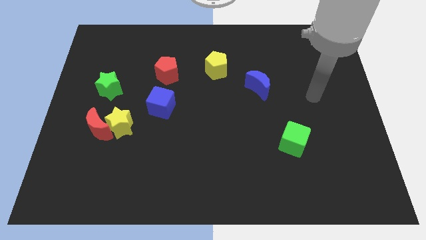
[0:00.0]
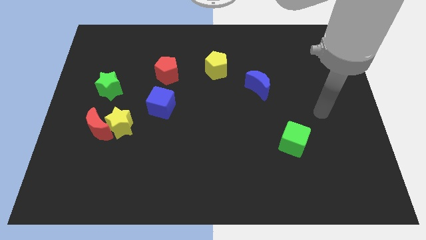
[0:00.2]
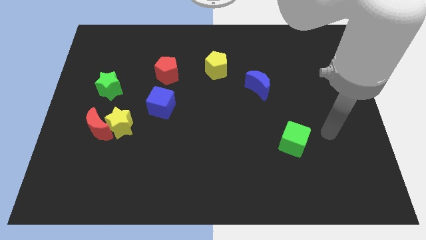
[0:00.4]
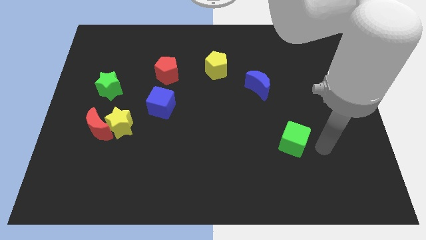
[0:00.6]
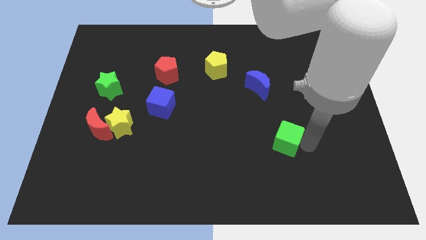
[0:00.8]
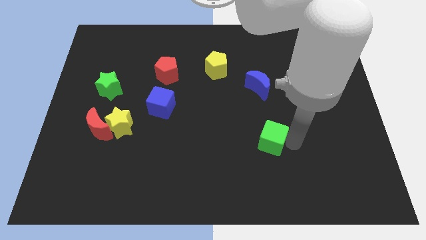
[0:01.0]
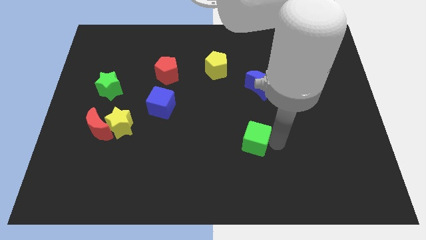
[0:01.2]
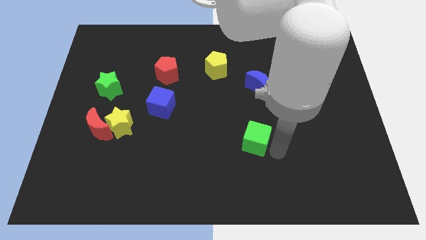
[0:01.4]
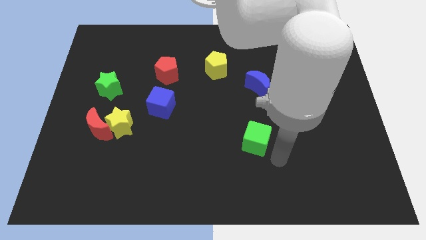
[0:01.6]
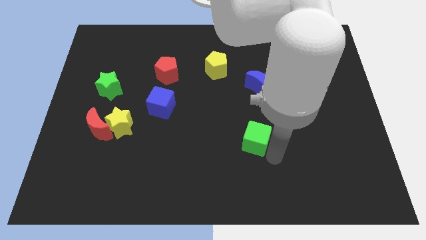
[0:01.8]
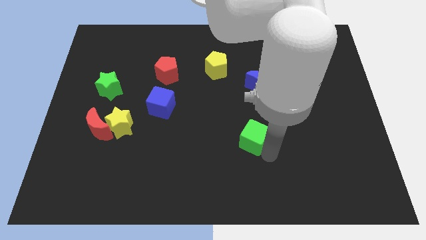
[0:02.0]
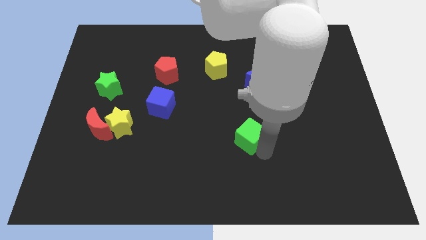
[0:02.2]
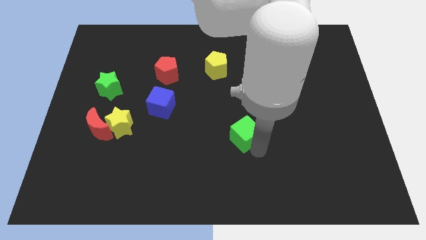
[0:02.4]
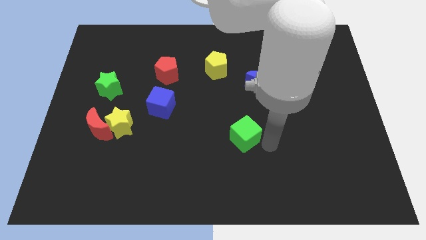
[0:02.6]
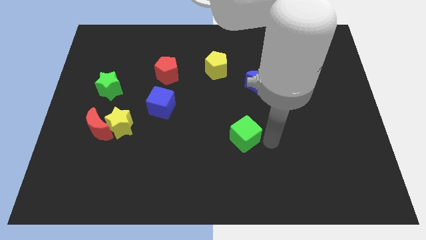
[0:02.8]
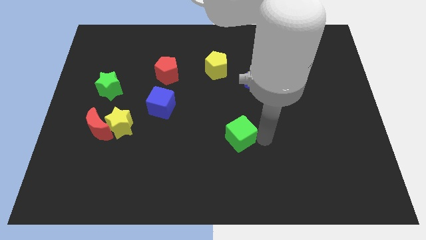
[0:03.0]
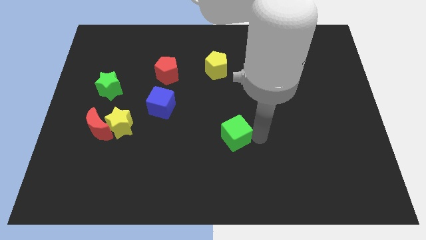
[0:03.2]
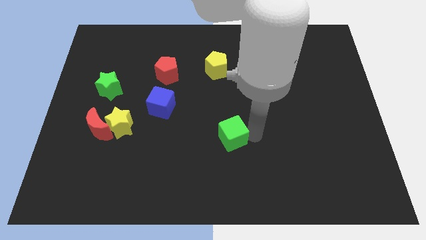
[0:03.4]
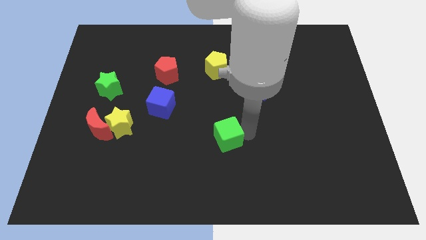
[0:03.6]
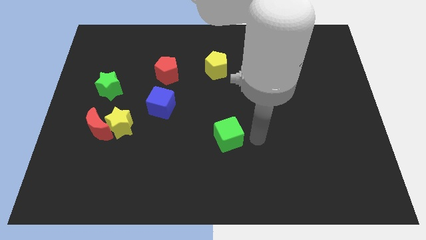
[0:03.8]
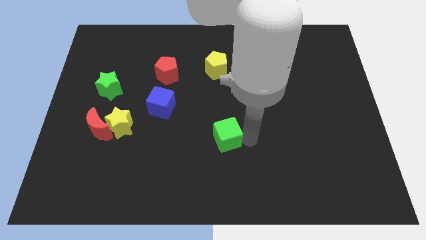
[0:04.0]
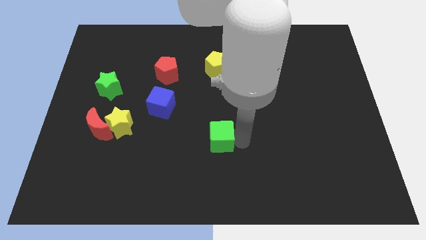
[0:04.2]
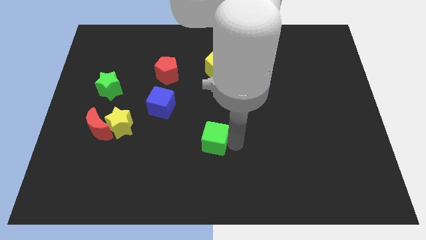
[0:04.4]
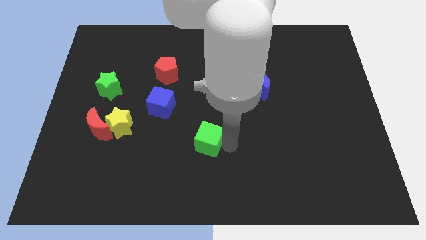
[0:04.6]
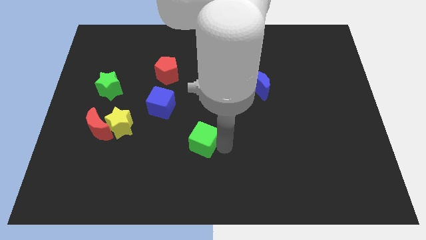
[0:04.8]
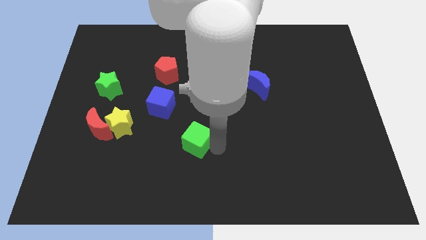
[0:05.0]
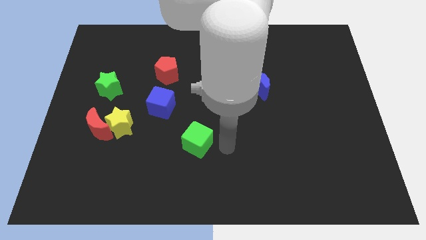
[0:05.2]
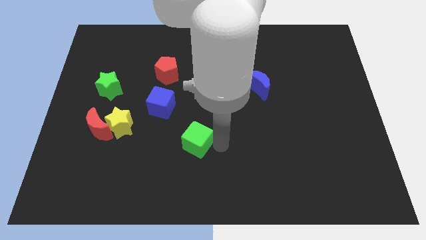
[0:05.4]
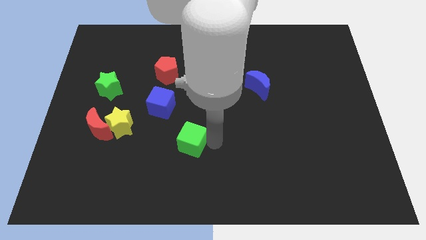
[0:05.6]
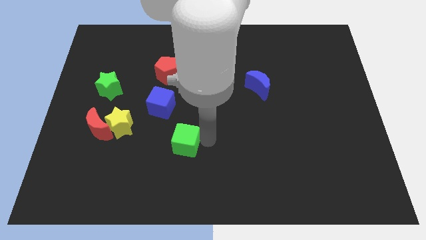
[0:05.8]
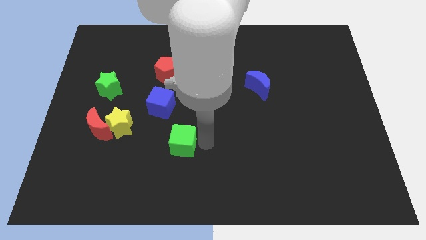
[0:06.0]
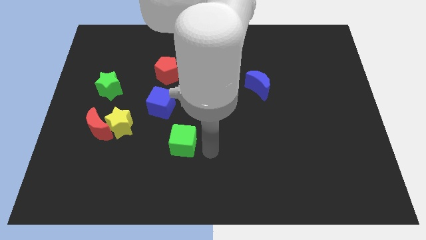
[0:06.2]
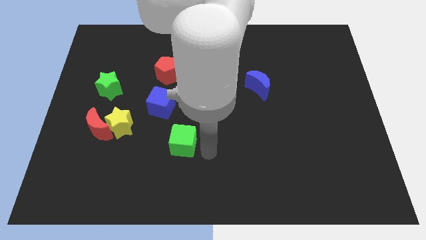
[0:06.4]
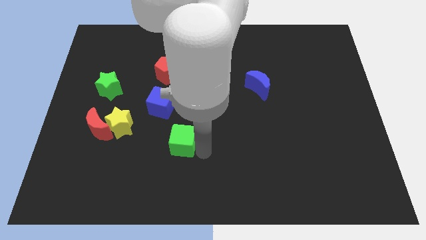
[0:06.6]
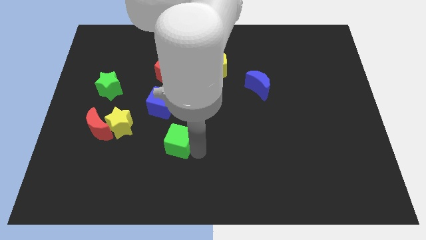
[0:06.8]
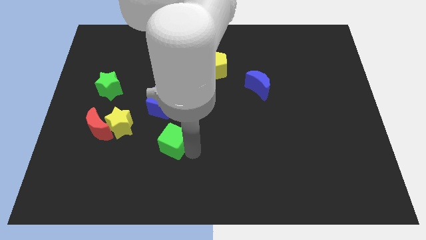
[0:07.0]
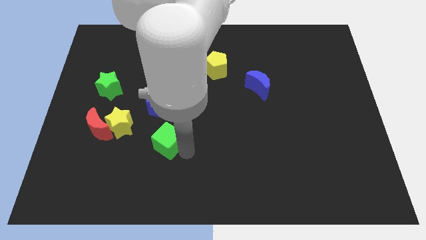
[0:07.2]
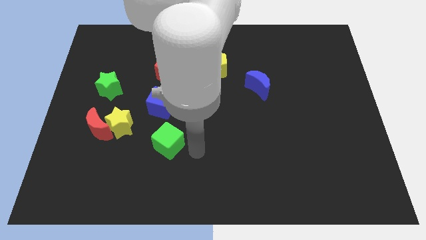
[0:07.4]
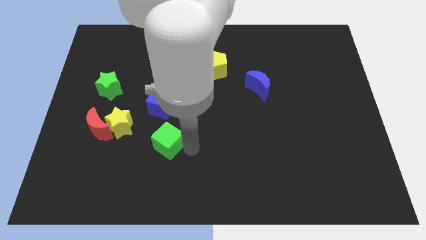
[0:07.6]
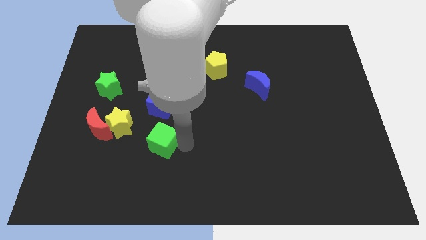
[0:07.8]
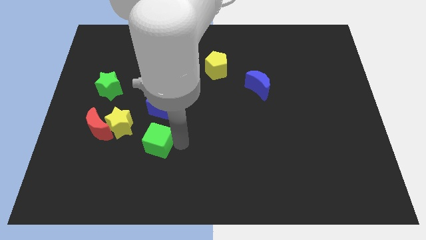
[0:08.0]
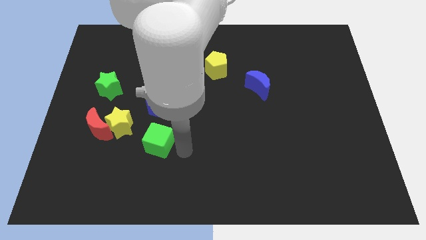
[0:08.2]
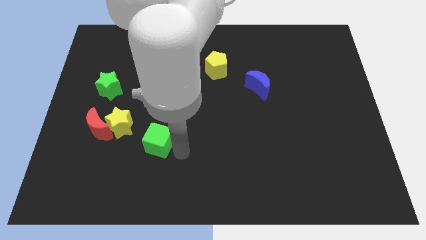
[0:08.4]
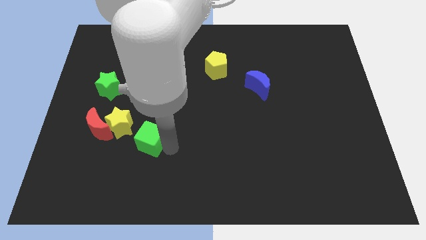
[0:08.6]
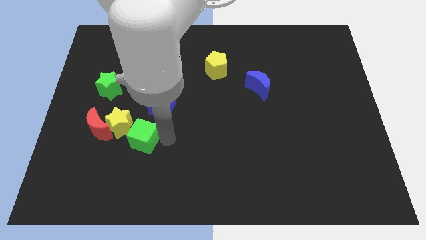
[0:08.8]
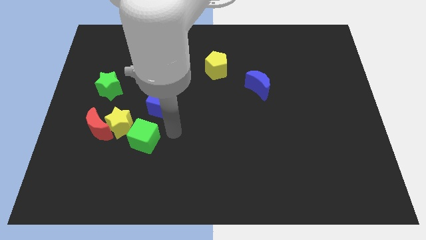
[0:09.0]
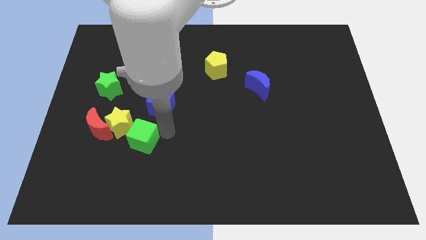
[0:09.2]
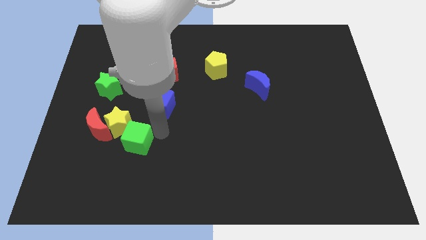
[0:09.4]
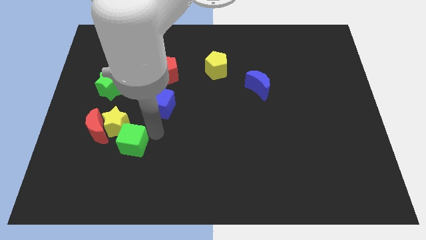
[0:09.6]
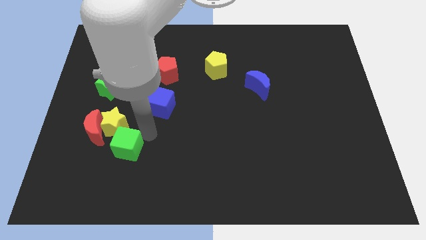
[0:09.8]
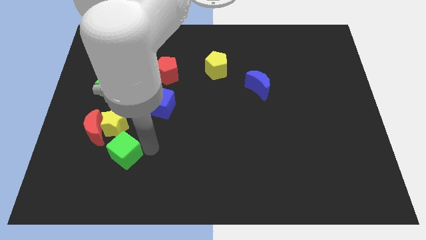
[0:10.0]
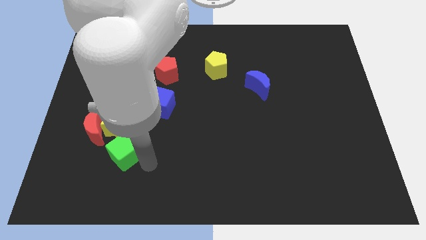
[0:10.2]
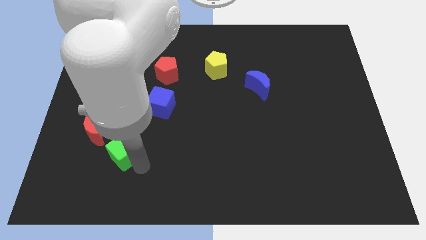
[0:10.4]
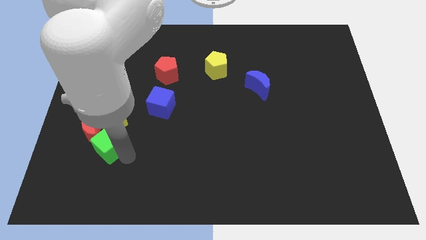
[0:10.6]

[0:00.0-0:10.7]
slide the green cube towards the red moon

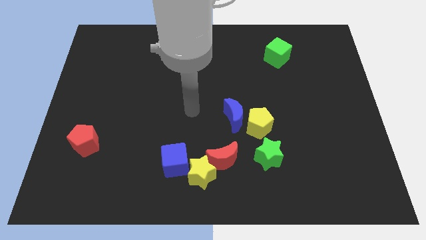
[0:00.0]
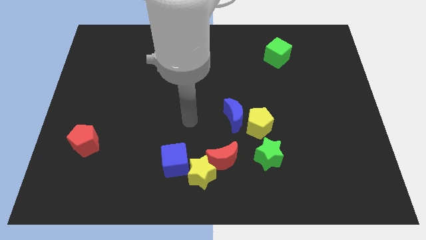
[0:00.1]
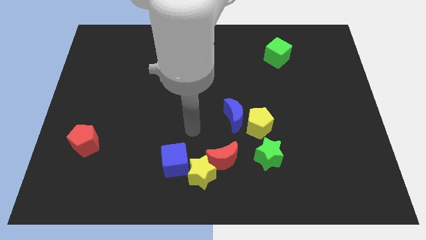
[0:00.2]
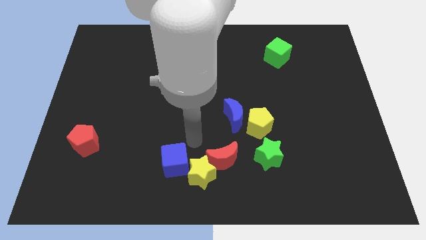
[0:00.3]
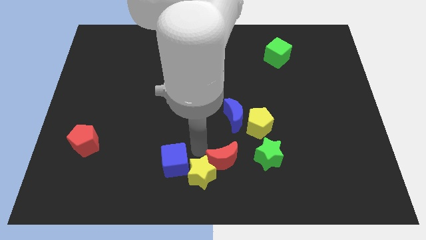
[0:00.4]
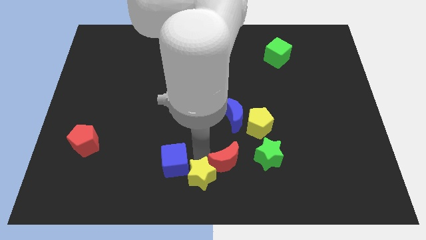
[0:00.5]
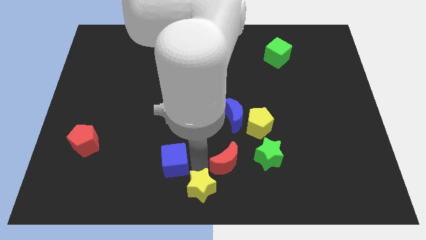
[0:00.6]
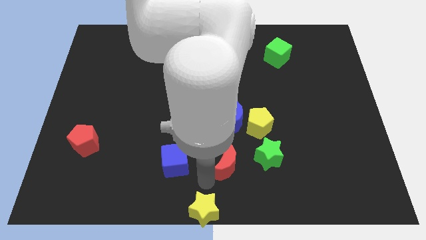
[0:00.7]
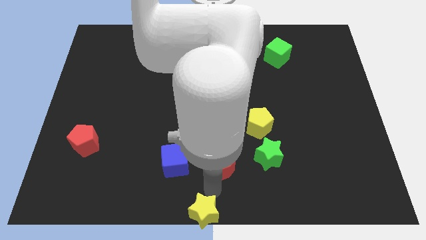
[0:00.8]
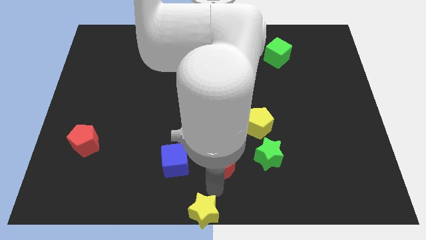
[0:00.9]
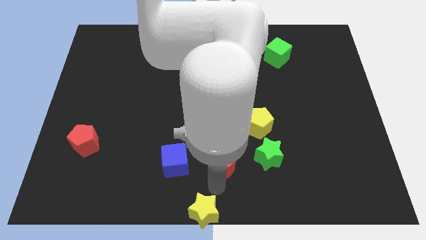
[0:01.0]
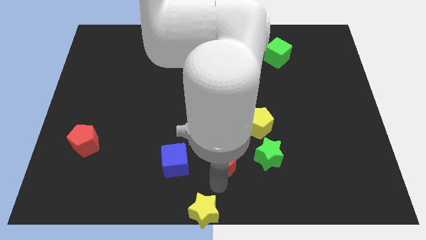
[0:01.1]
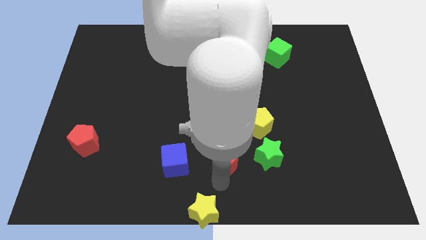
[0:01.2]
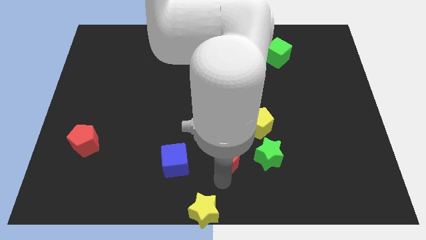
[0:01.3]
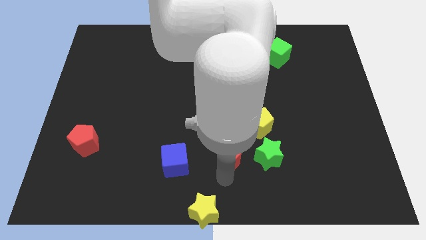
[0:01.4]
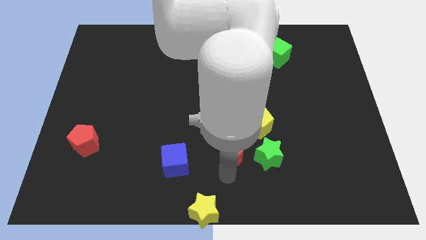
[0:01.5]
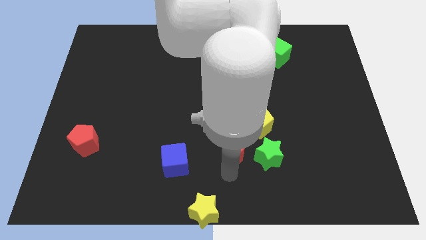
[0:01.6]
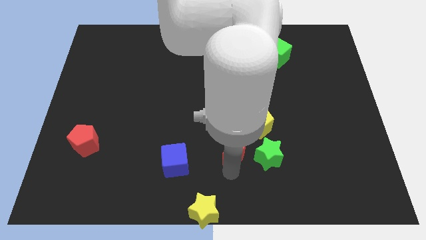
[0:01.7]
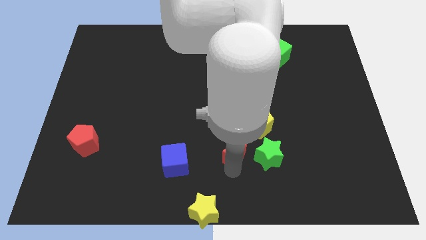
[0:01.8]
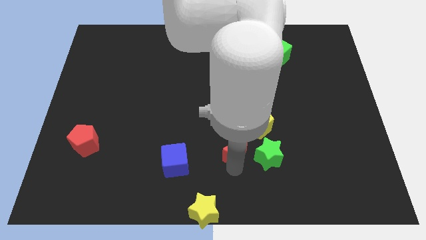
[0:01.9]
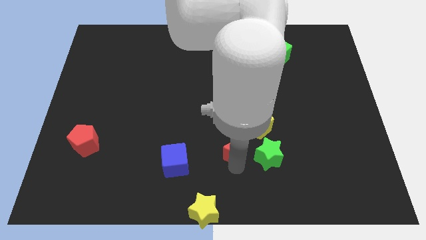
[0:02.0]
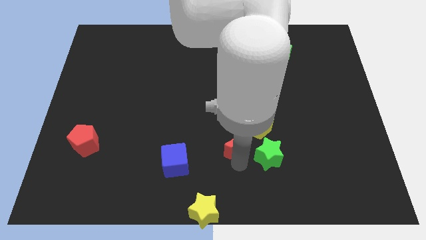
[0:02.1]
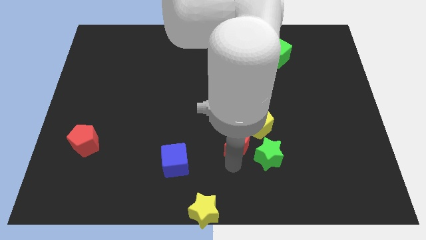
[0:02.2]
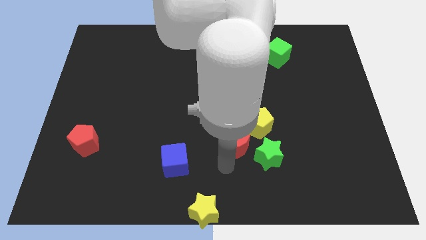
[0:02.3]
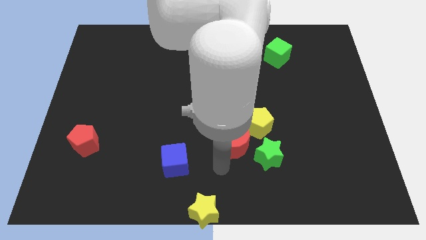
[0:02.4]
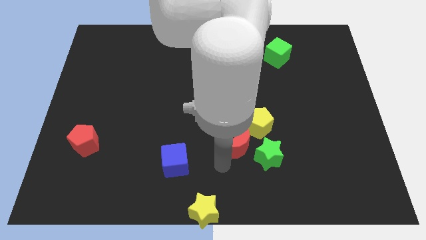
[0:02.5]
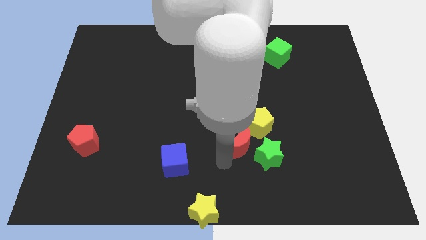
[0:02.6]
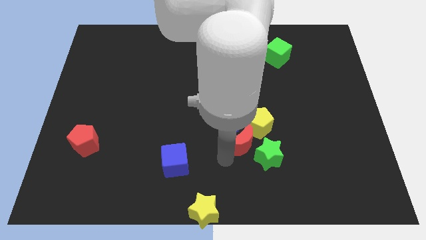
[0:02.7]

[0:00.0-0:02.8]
put the red moon towards the yellow pentagon
